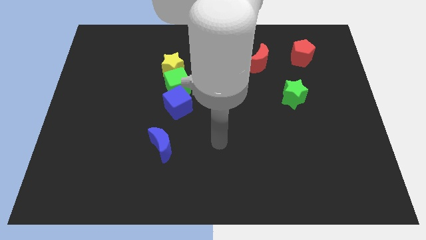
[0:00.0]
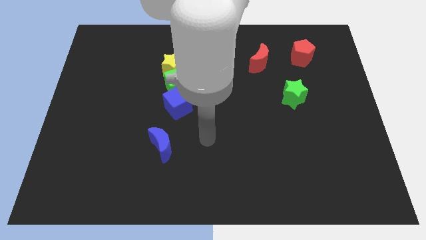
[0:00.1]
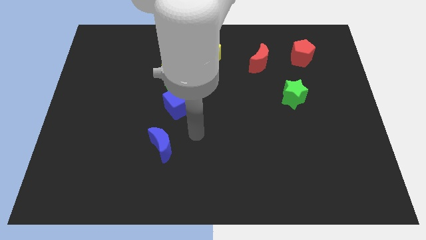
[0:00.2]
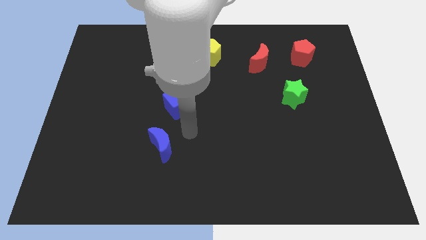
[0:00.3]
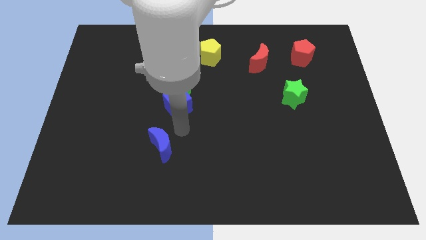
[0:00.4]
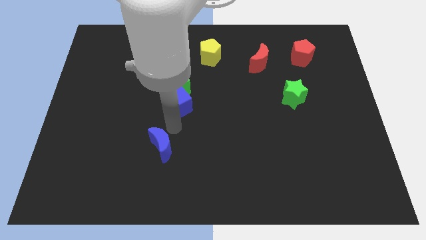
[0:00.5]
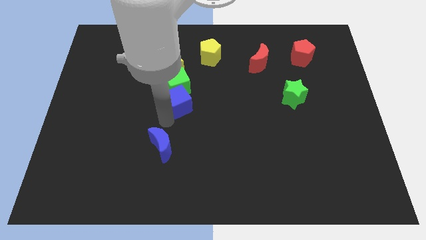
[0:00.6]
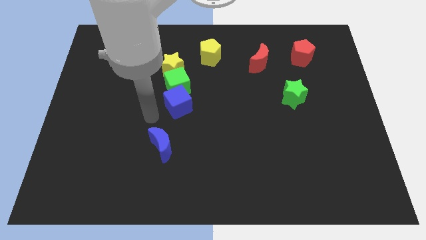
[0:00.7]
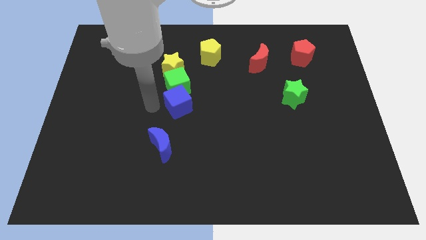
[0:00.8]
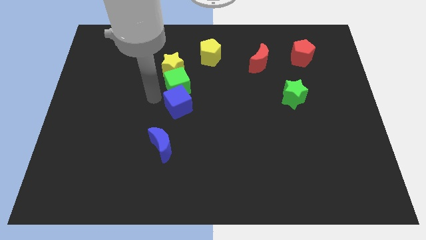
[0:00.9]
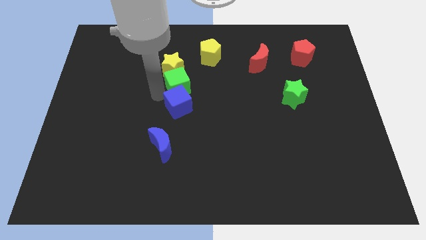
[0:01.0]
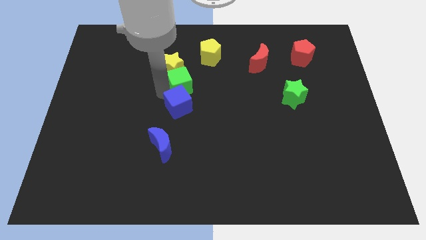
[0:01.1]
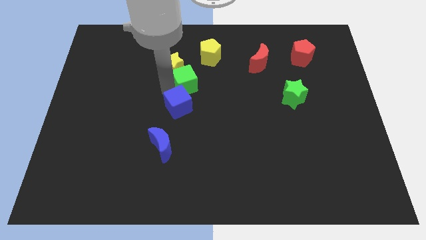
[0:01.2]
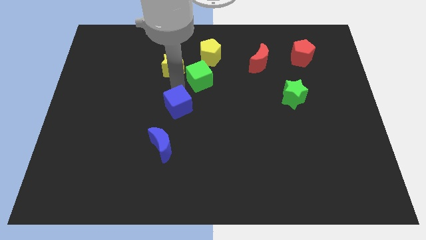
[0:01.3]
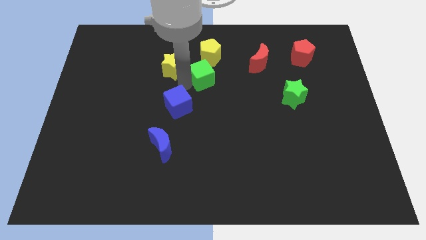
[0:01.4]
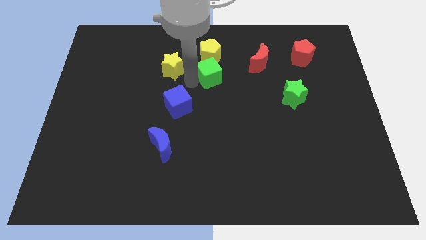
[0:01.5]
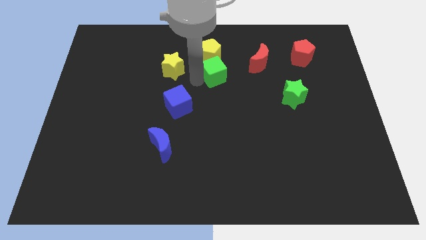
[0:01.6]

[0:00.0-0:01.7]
pull the green cube apart from the yellow star and blue cube

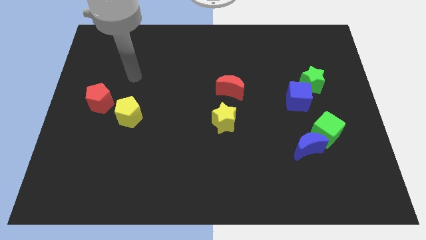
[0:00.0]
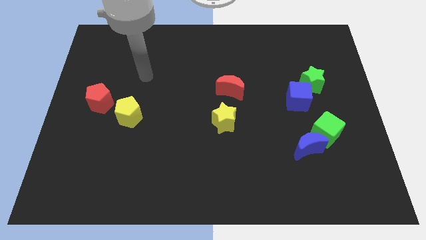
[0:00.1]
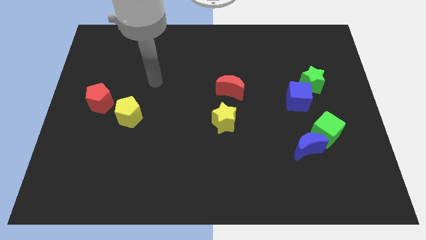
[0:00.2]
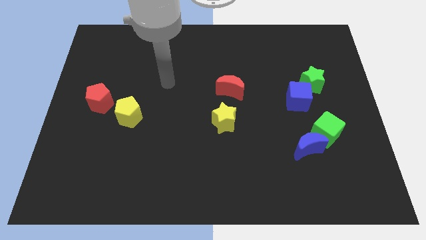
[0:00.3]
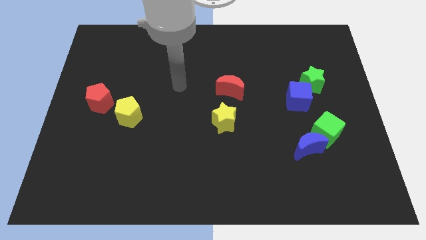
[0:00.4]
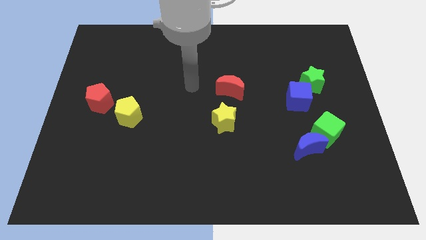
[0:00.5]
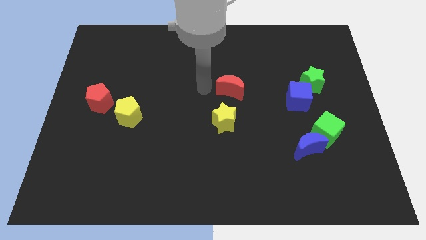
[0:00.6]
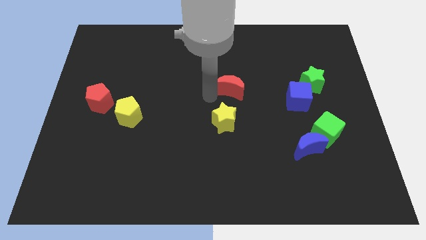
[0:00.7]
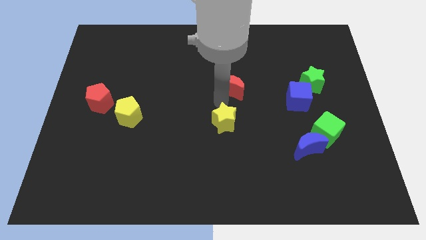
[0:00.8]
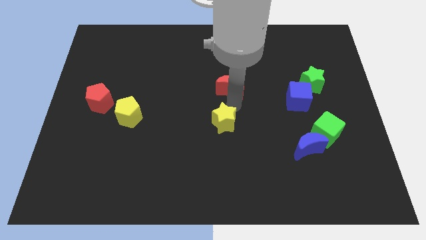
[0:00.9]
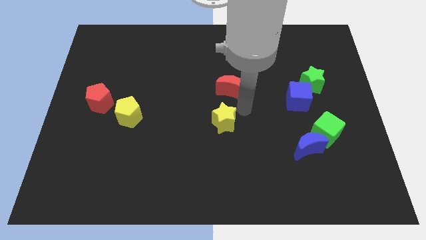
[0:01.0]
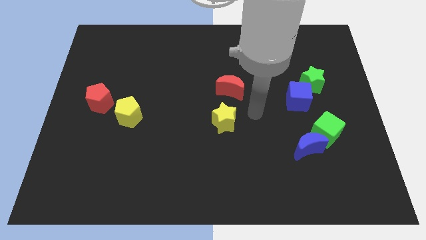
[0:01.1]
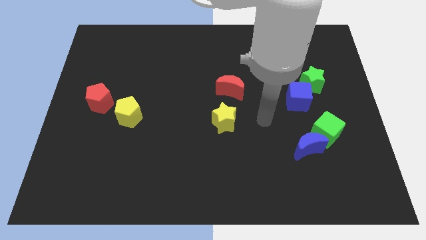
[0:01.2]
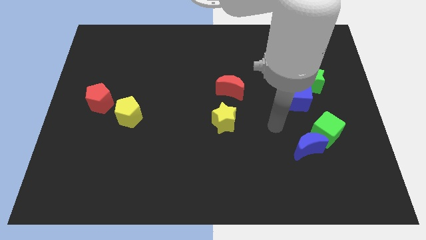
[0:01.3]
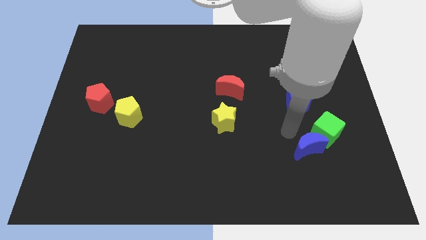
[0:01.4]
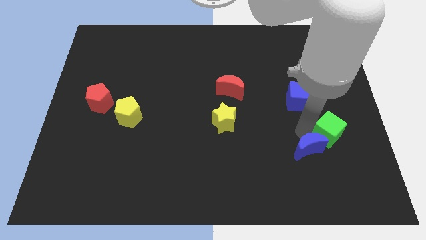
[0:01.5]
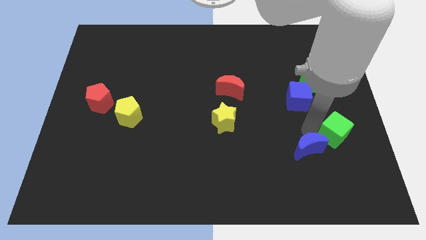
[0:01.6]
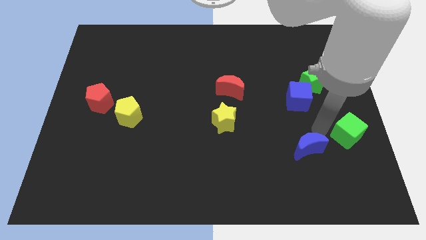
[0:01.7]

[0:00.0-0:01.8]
pull the blue moon apart from the green cube

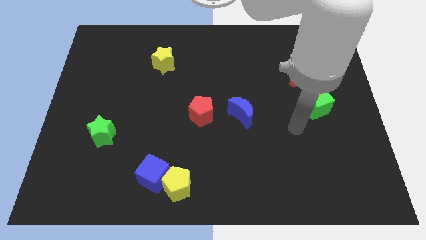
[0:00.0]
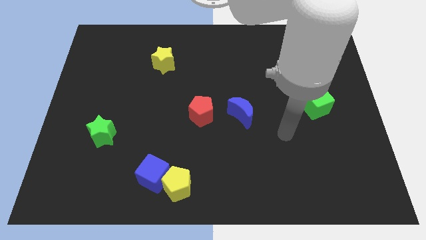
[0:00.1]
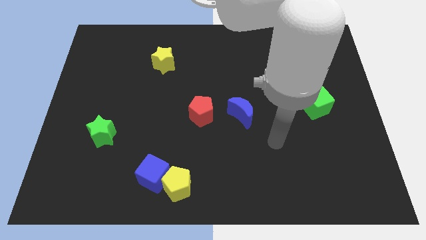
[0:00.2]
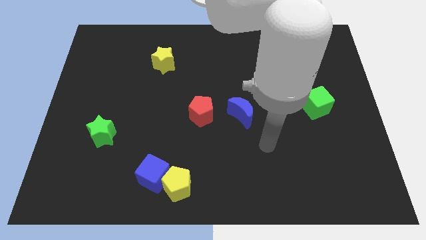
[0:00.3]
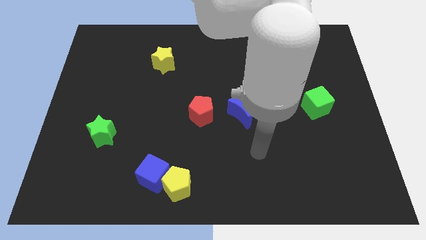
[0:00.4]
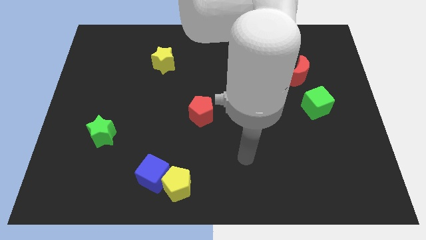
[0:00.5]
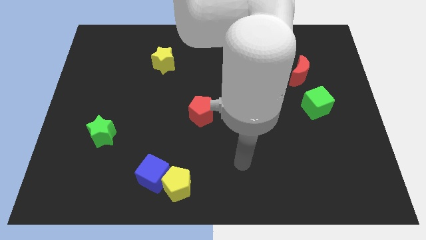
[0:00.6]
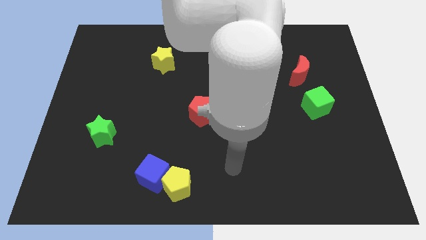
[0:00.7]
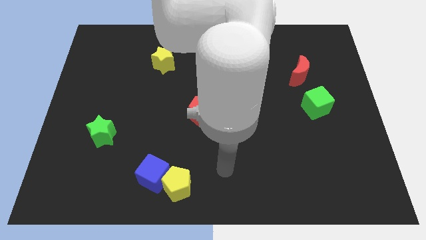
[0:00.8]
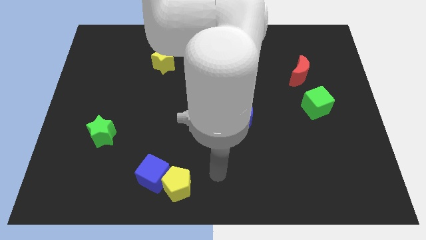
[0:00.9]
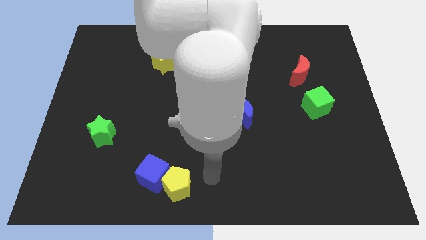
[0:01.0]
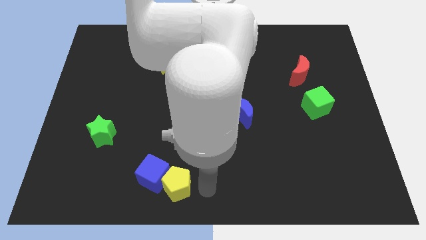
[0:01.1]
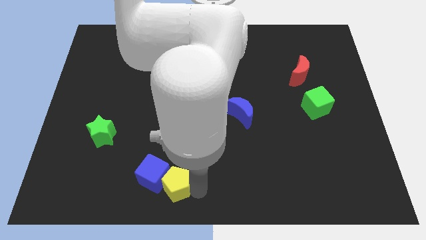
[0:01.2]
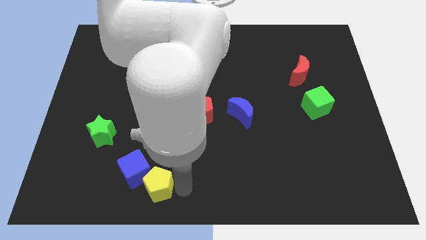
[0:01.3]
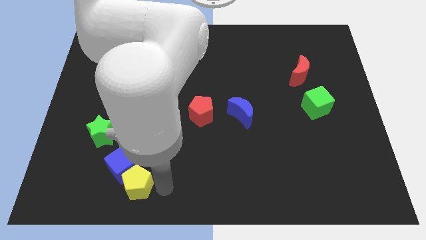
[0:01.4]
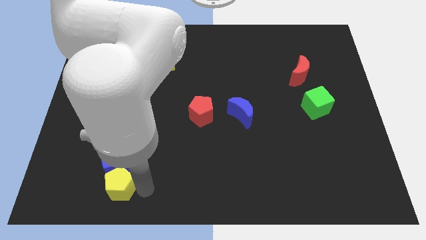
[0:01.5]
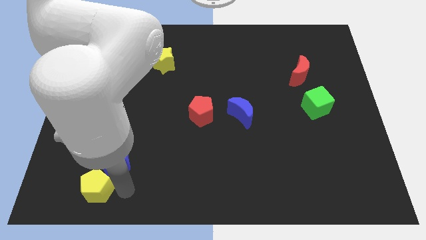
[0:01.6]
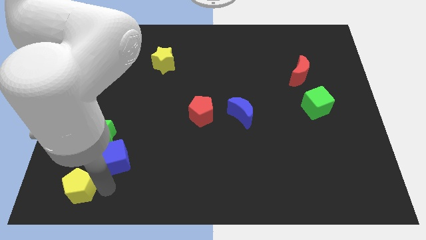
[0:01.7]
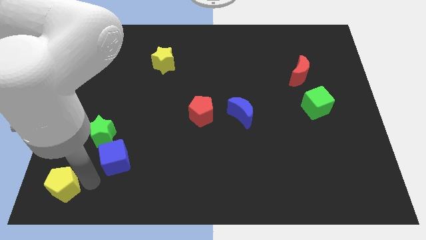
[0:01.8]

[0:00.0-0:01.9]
separate the blue cube from the yellow pentagon

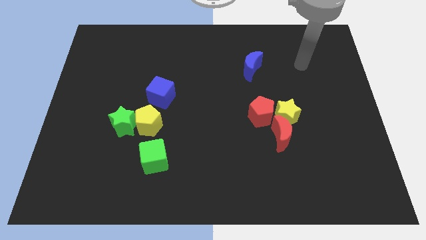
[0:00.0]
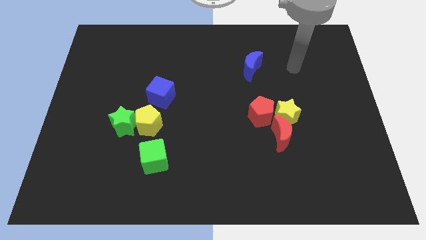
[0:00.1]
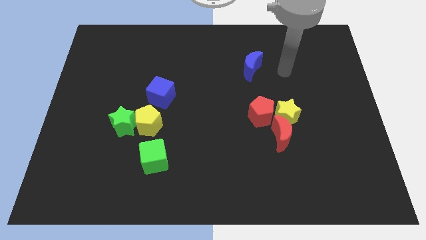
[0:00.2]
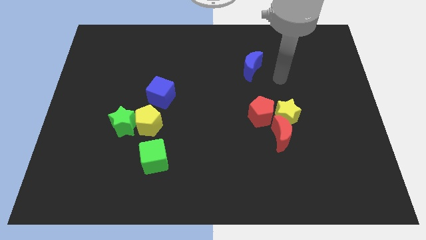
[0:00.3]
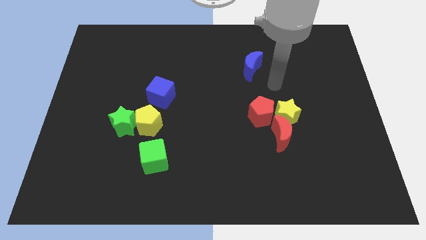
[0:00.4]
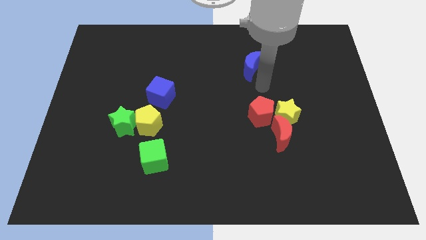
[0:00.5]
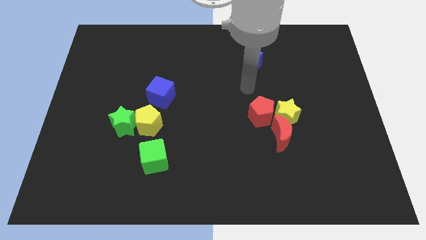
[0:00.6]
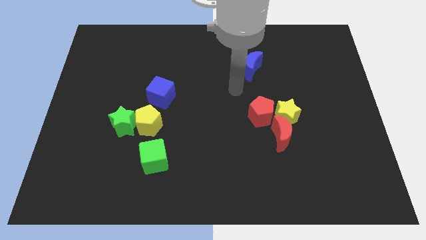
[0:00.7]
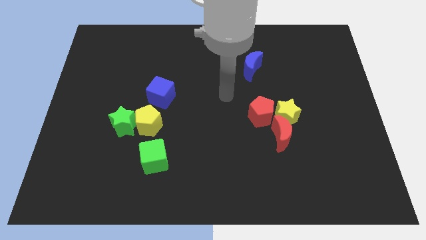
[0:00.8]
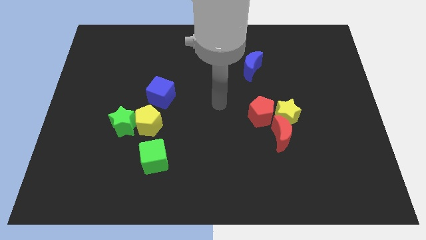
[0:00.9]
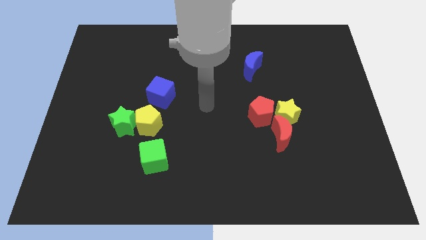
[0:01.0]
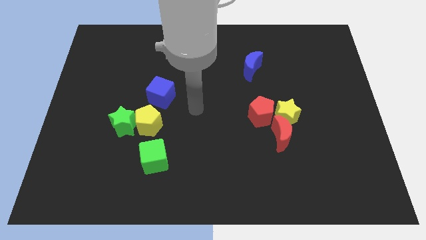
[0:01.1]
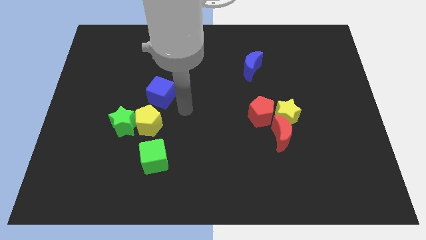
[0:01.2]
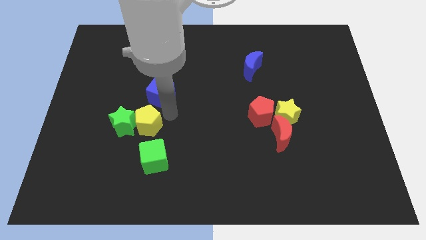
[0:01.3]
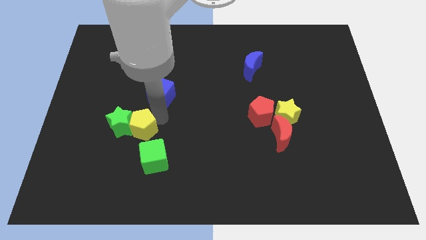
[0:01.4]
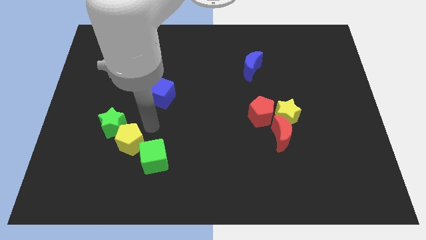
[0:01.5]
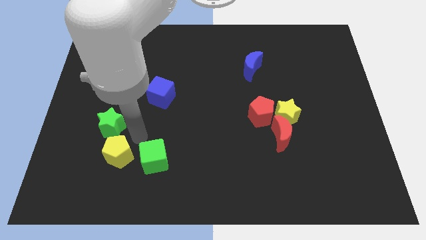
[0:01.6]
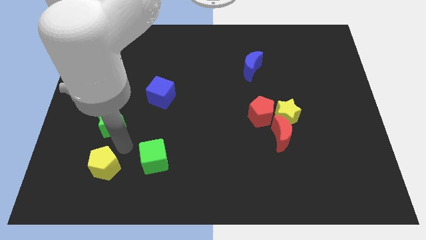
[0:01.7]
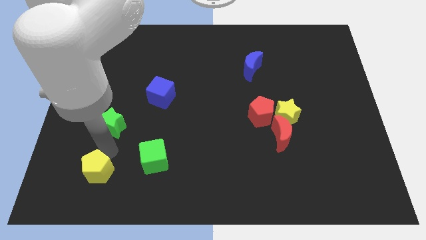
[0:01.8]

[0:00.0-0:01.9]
separate the green star from the yellow pentagon

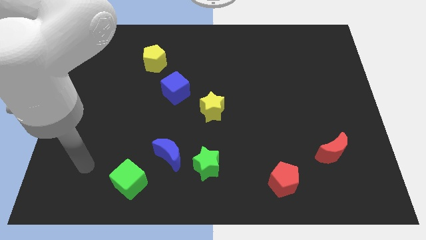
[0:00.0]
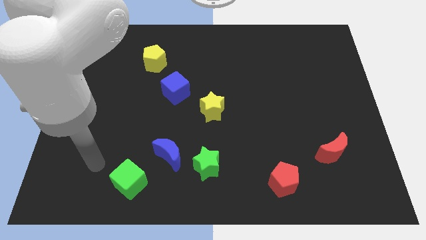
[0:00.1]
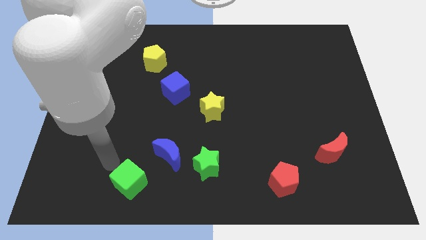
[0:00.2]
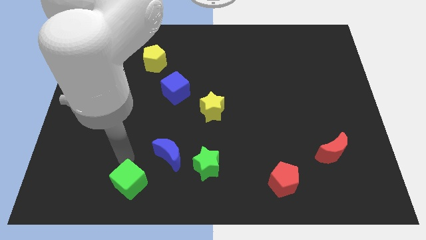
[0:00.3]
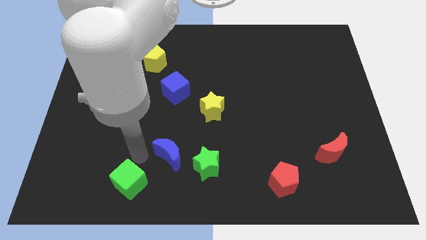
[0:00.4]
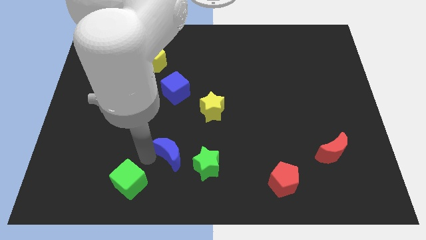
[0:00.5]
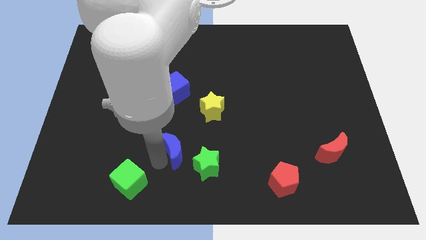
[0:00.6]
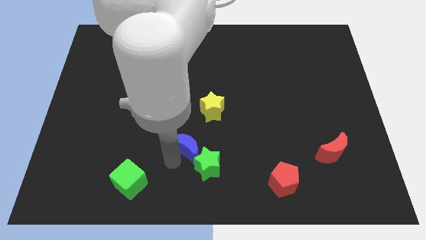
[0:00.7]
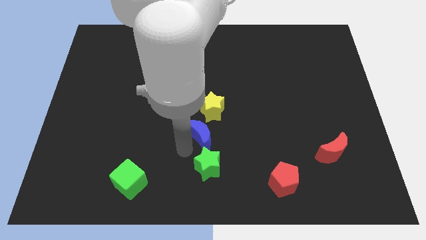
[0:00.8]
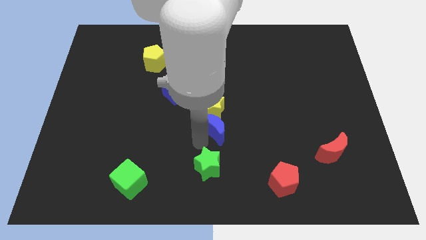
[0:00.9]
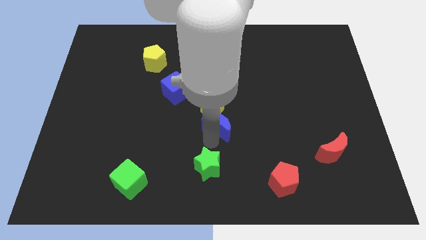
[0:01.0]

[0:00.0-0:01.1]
move the green star away from the blue moon

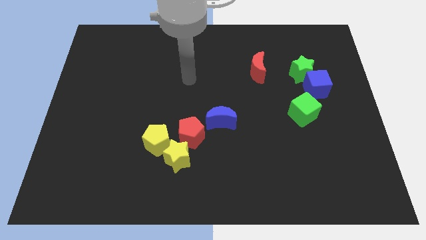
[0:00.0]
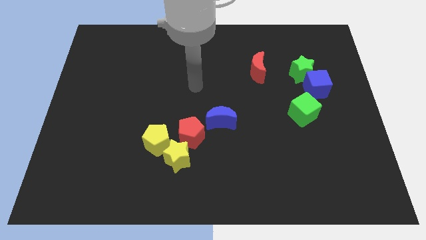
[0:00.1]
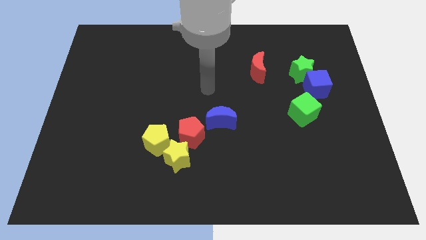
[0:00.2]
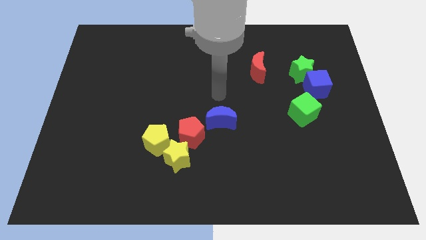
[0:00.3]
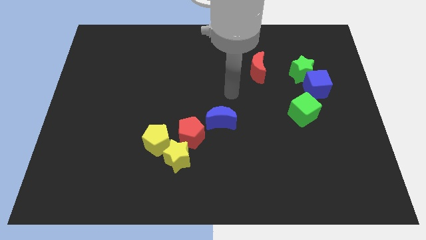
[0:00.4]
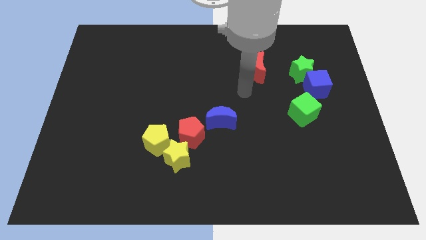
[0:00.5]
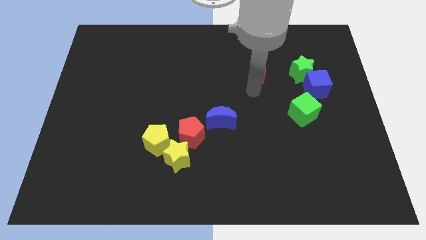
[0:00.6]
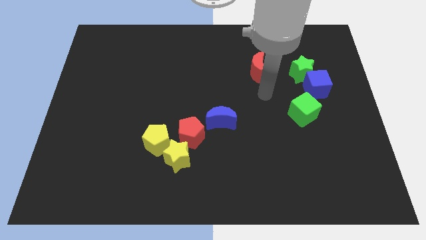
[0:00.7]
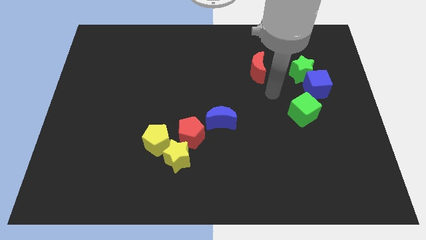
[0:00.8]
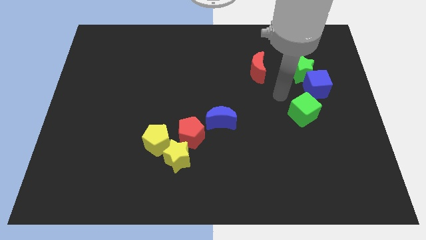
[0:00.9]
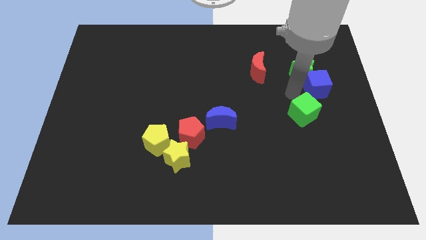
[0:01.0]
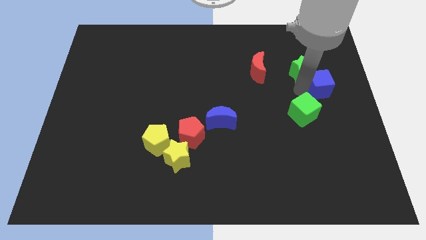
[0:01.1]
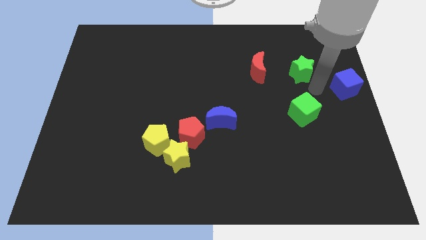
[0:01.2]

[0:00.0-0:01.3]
separate the green star from the blue cube
